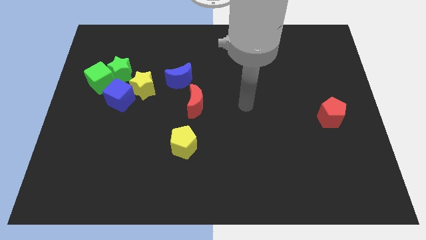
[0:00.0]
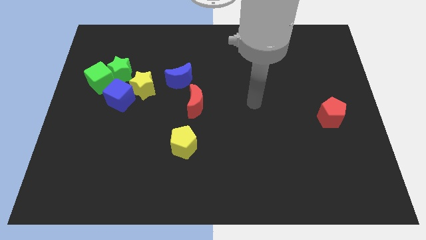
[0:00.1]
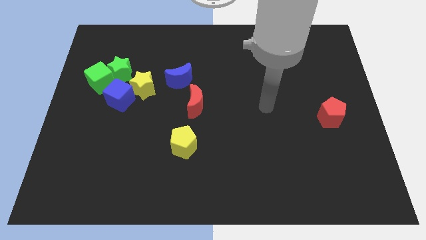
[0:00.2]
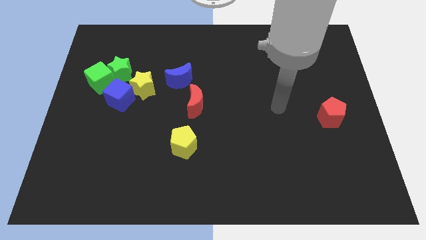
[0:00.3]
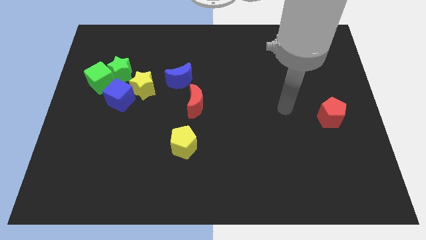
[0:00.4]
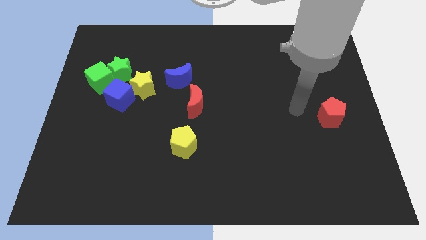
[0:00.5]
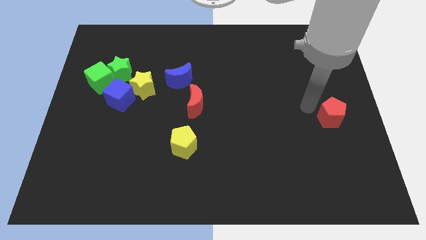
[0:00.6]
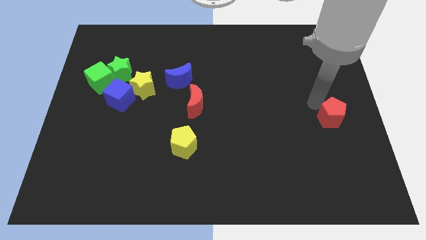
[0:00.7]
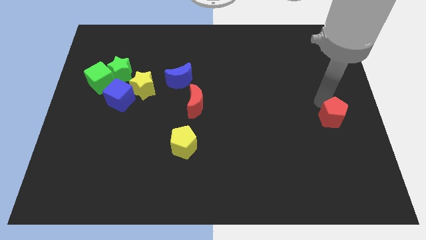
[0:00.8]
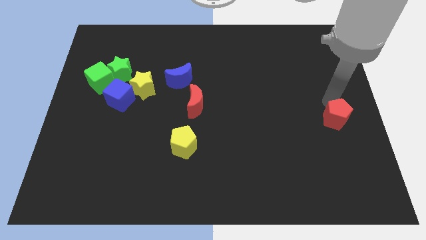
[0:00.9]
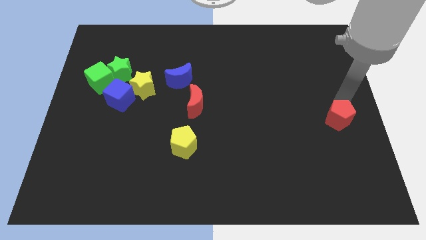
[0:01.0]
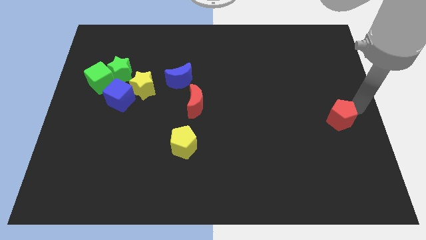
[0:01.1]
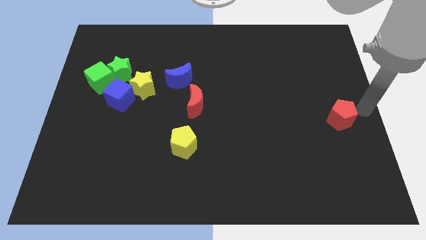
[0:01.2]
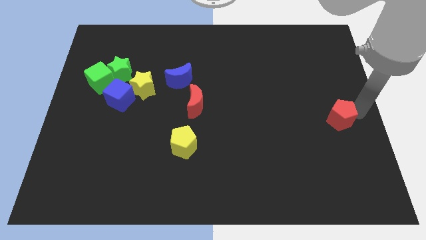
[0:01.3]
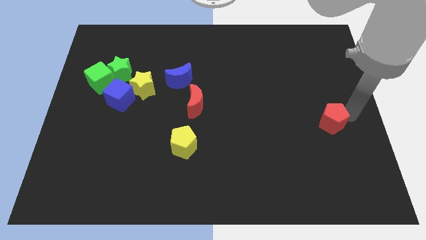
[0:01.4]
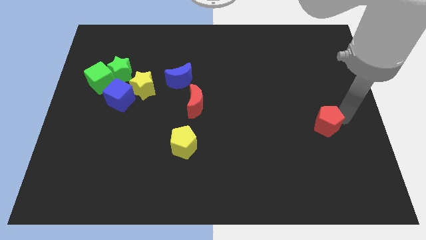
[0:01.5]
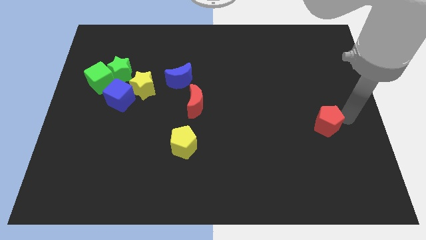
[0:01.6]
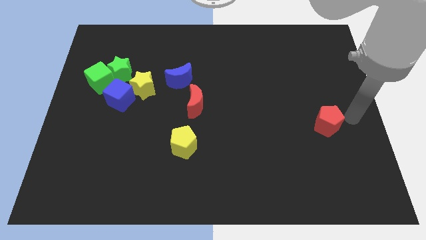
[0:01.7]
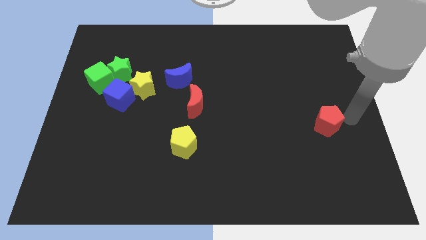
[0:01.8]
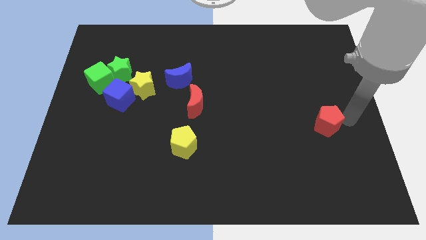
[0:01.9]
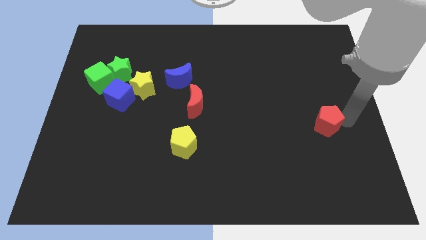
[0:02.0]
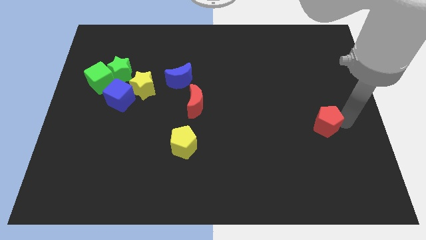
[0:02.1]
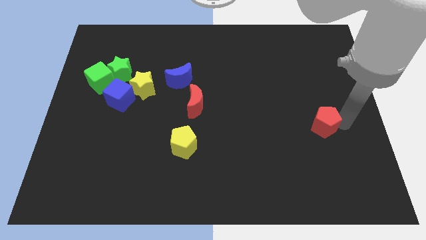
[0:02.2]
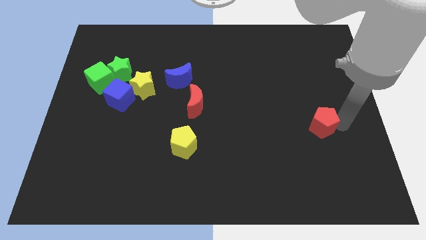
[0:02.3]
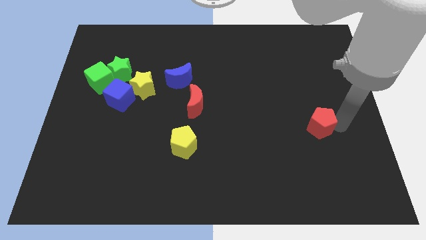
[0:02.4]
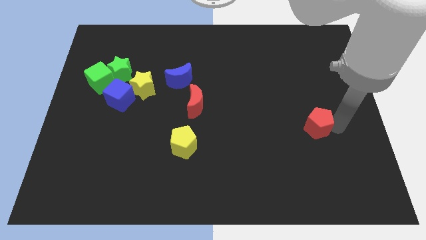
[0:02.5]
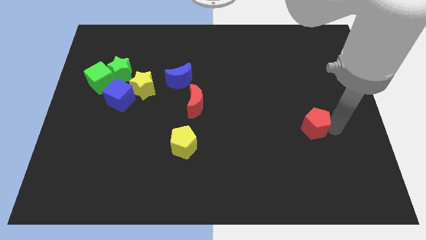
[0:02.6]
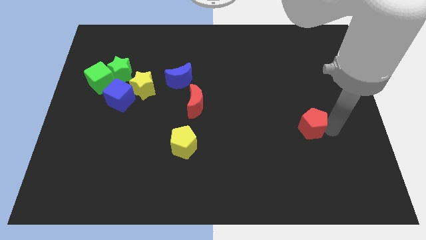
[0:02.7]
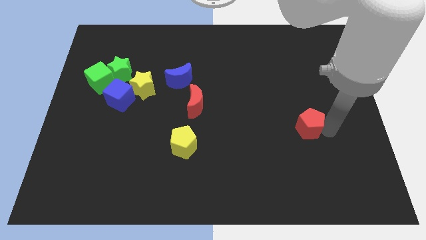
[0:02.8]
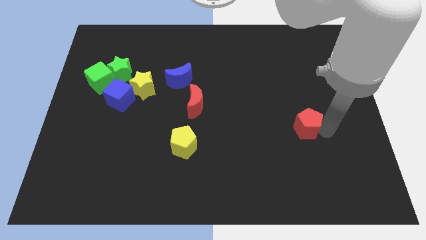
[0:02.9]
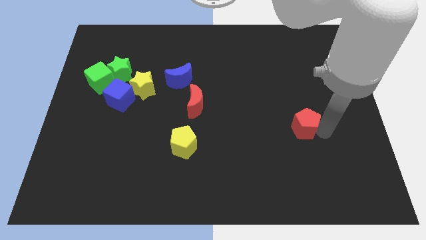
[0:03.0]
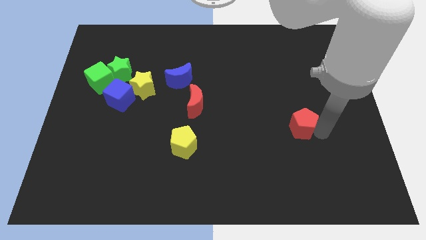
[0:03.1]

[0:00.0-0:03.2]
slightly move the red pentagon left

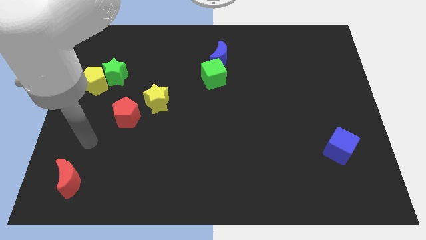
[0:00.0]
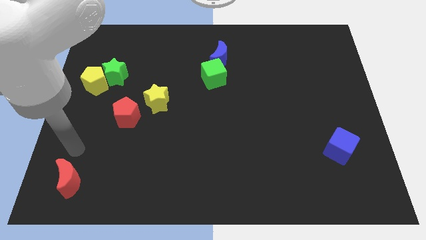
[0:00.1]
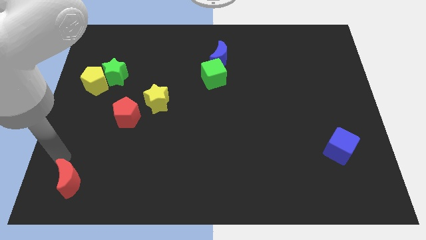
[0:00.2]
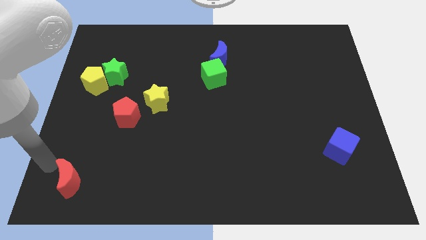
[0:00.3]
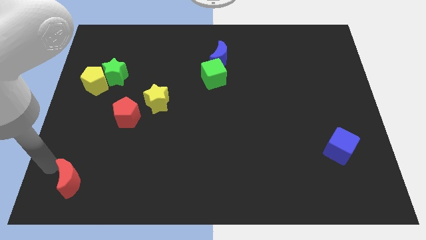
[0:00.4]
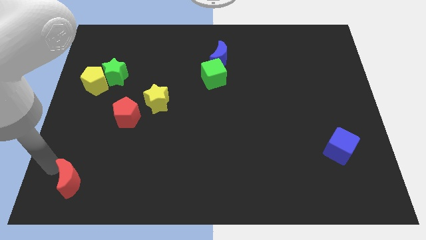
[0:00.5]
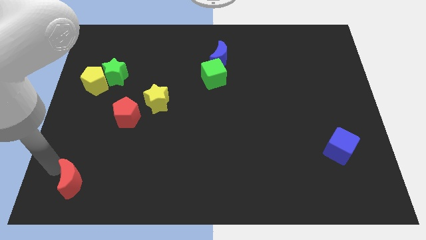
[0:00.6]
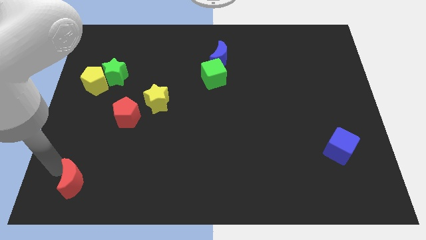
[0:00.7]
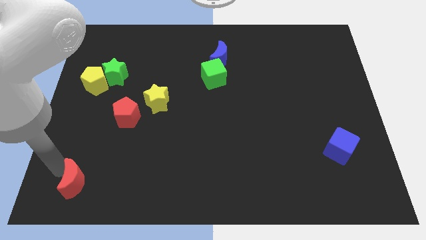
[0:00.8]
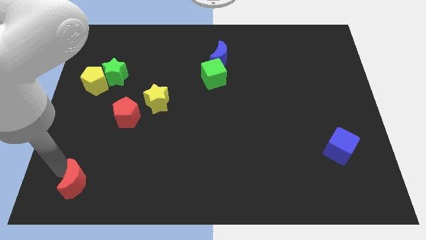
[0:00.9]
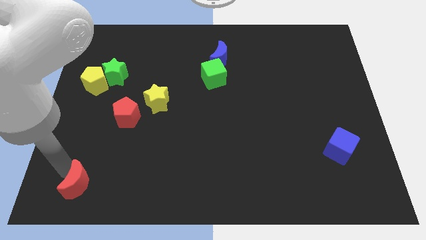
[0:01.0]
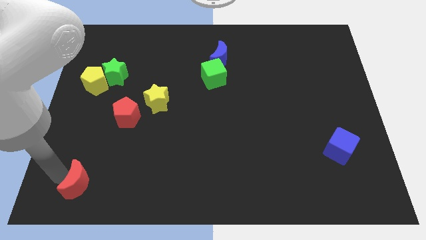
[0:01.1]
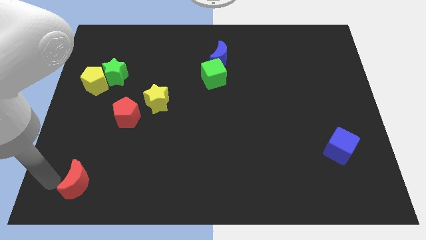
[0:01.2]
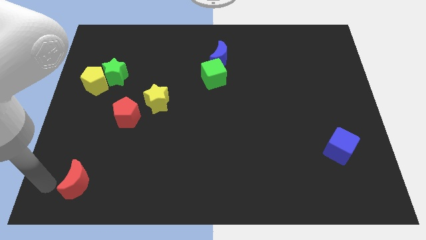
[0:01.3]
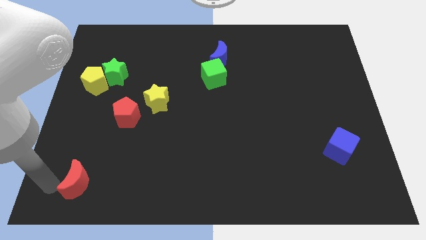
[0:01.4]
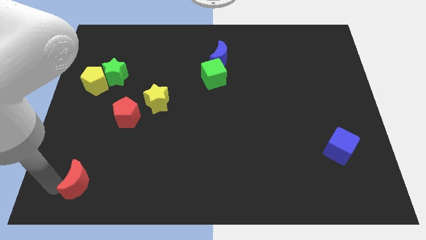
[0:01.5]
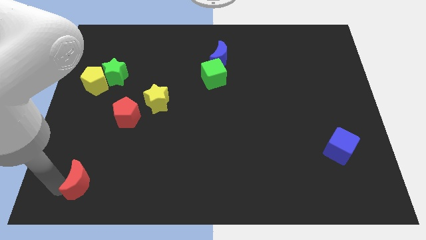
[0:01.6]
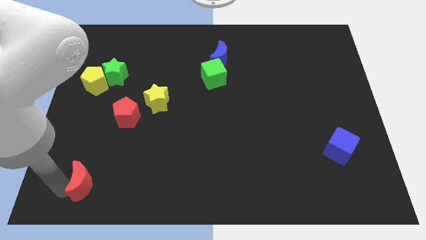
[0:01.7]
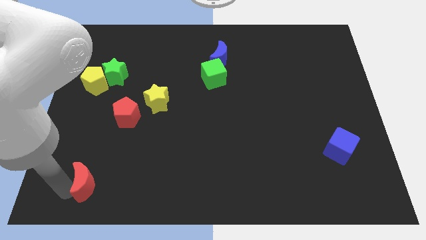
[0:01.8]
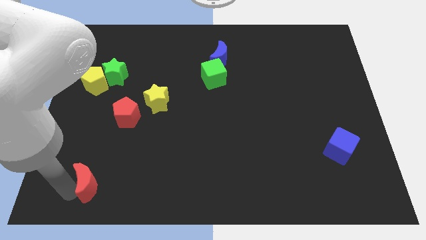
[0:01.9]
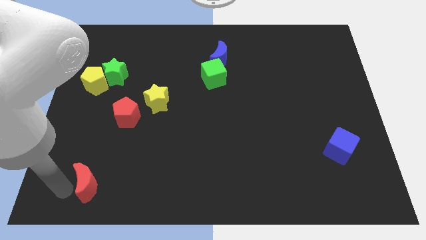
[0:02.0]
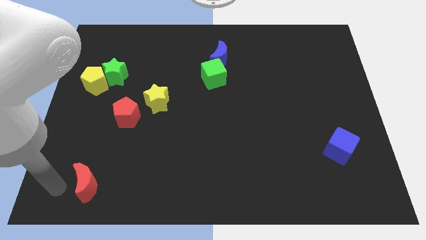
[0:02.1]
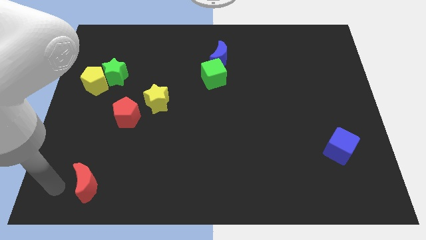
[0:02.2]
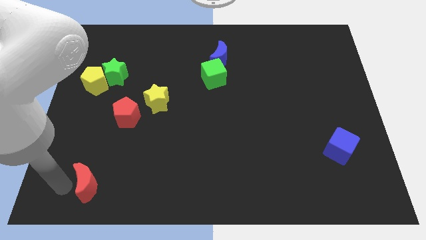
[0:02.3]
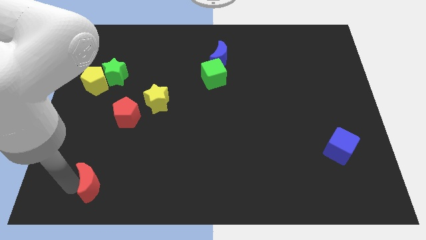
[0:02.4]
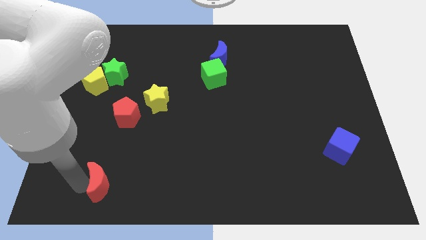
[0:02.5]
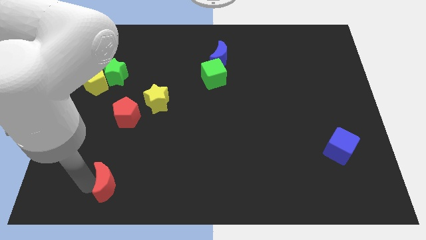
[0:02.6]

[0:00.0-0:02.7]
move the red moon right a little bit

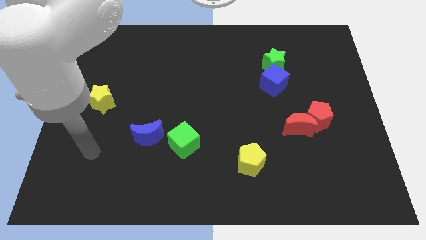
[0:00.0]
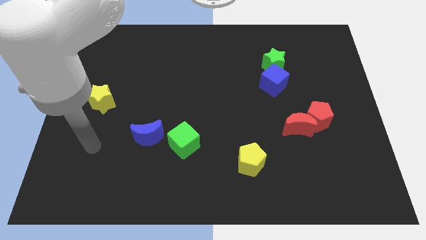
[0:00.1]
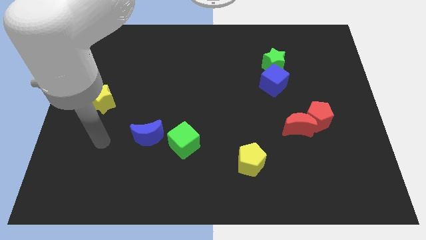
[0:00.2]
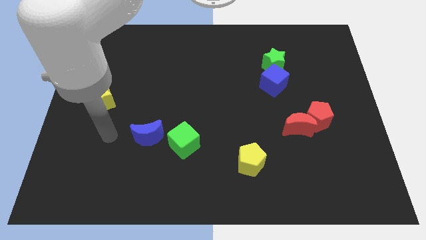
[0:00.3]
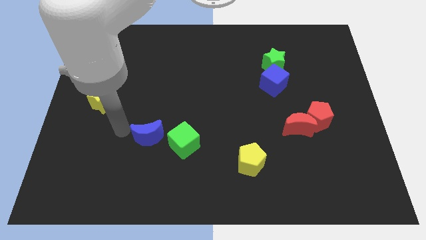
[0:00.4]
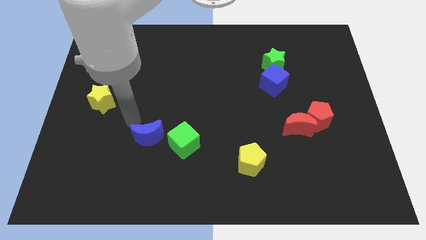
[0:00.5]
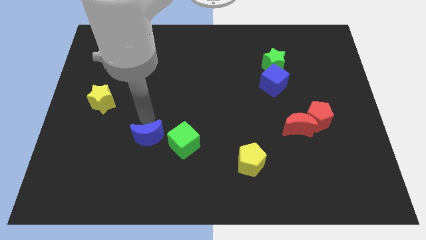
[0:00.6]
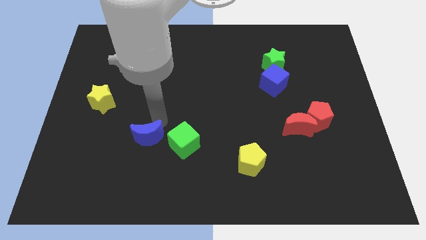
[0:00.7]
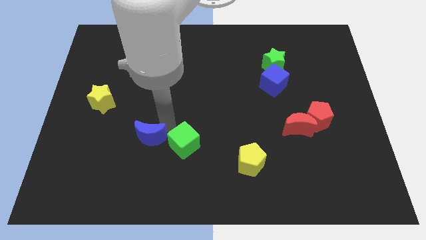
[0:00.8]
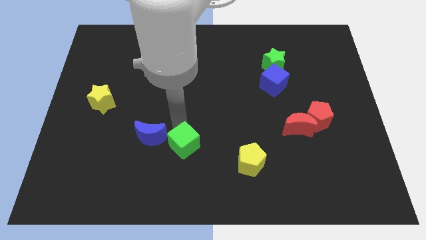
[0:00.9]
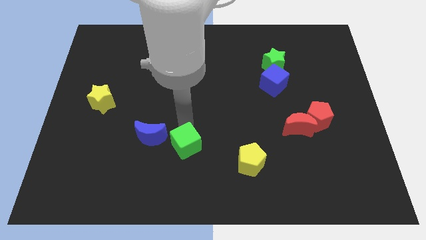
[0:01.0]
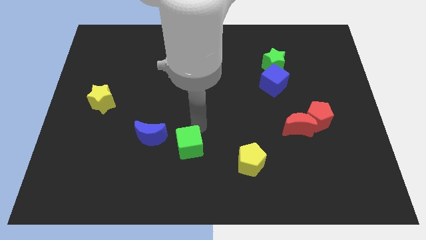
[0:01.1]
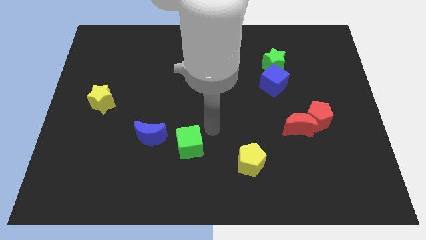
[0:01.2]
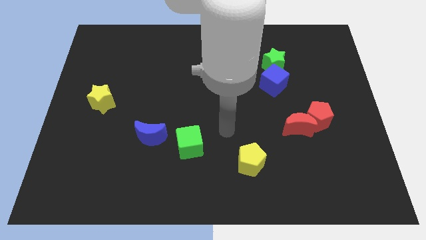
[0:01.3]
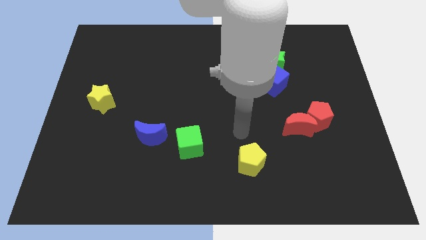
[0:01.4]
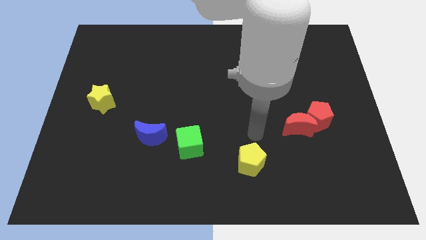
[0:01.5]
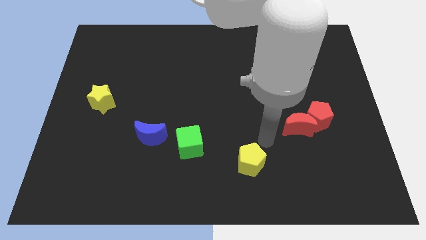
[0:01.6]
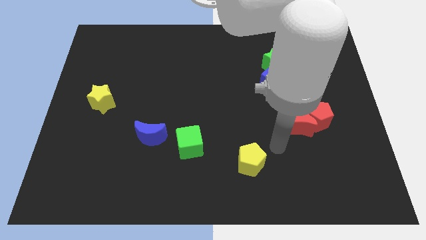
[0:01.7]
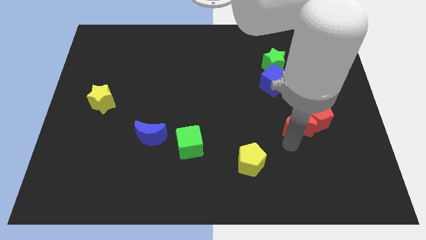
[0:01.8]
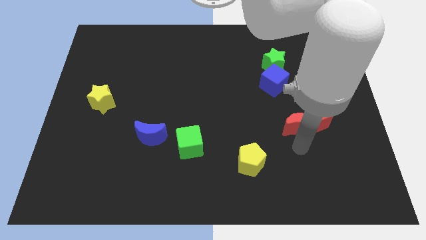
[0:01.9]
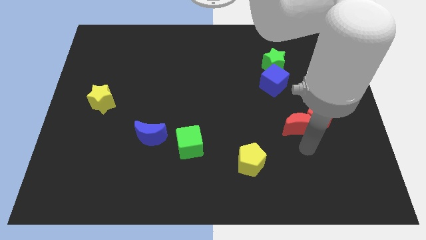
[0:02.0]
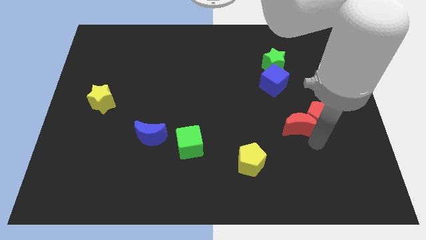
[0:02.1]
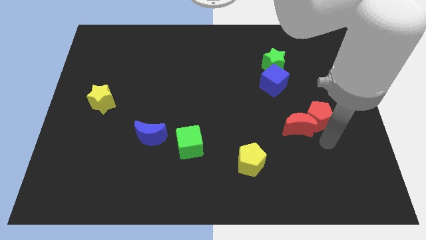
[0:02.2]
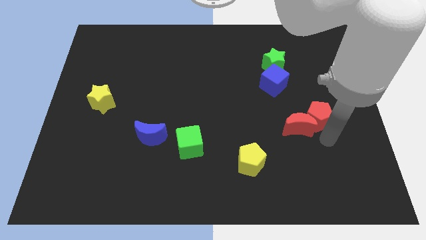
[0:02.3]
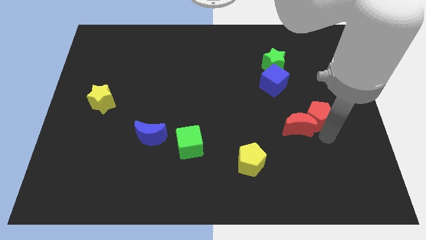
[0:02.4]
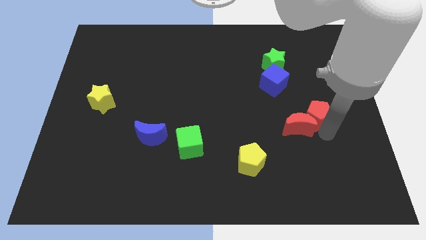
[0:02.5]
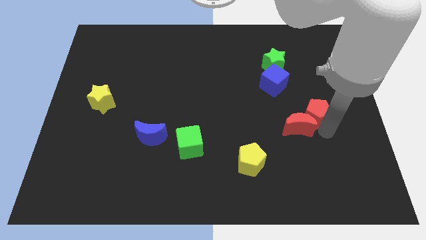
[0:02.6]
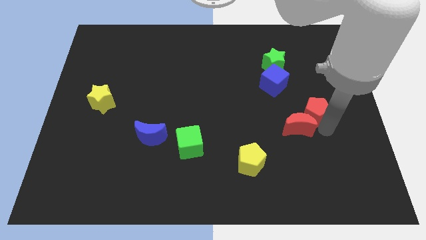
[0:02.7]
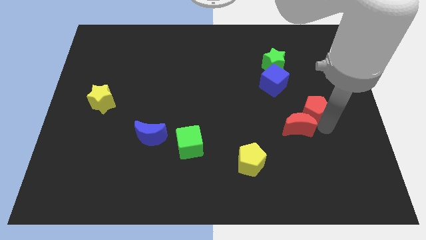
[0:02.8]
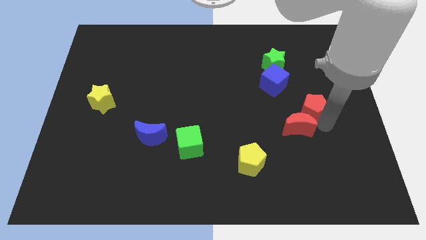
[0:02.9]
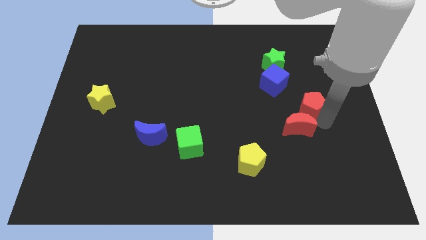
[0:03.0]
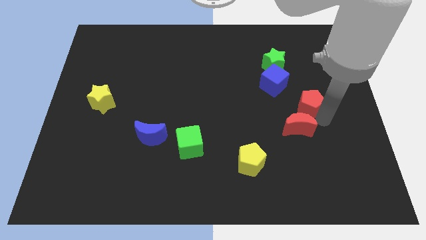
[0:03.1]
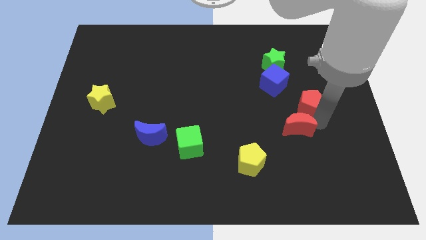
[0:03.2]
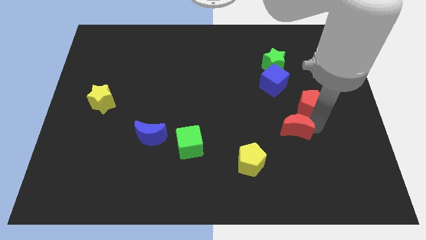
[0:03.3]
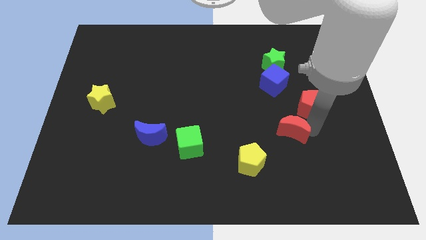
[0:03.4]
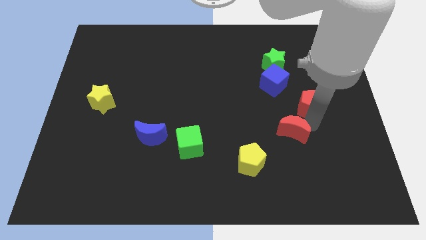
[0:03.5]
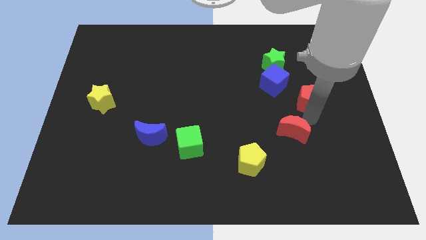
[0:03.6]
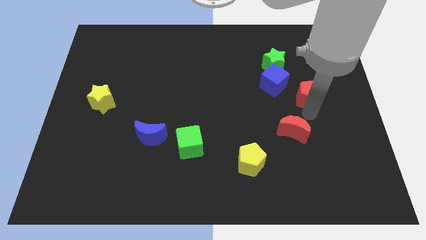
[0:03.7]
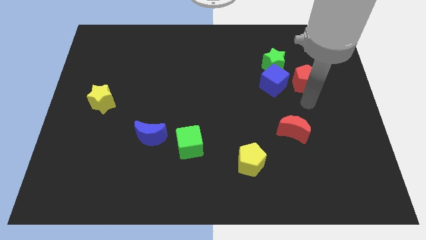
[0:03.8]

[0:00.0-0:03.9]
move the red pentagon somewhat upwards
